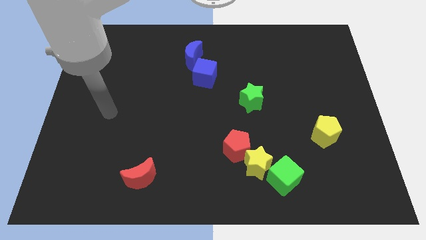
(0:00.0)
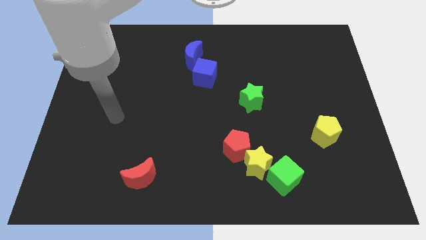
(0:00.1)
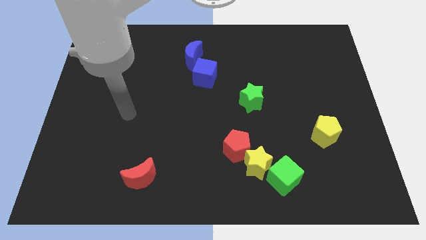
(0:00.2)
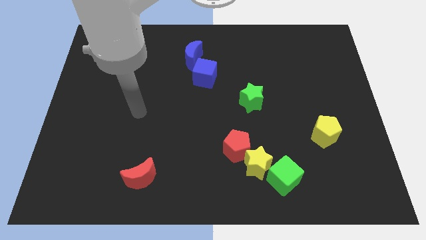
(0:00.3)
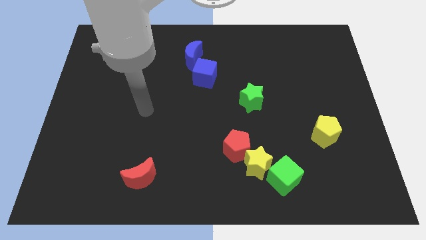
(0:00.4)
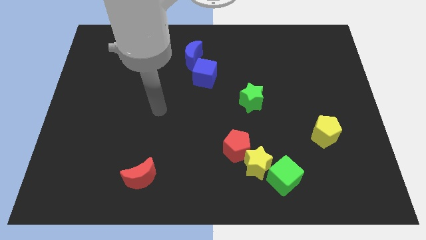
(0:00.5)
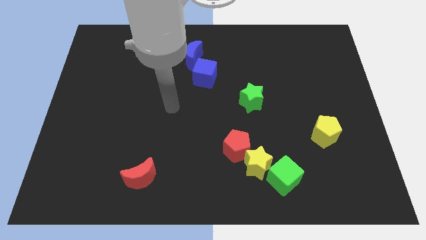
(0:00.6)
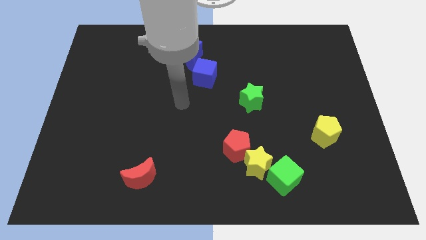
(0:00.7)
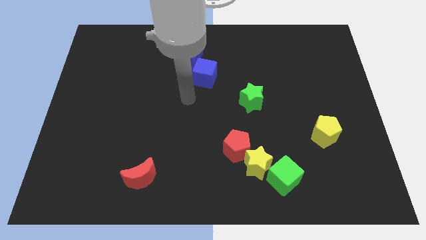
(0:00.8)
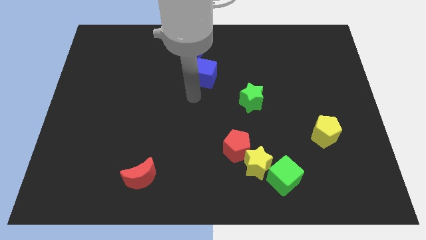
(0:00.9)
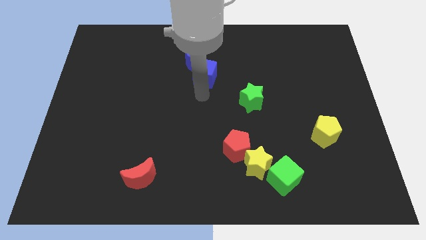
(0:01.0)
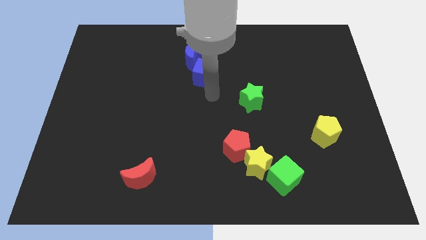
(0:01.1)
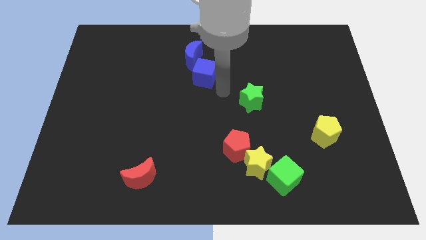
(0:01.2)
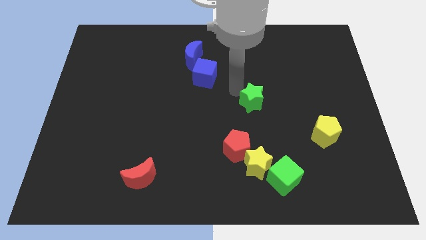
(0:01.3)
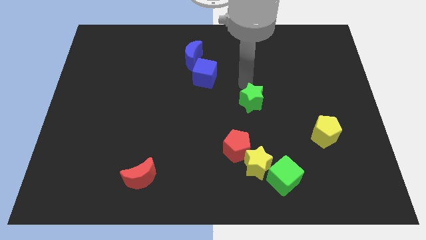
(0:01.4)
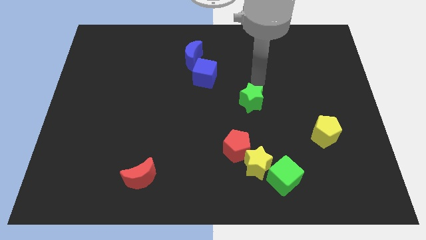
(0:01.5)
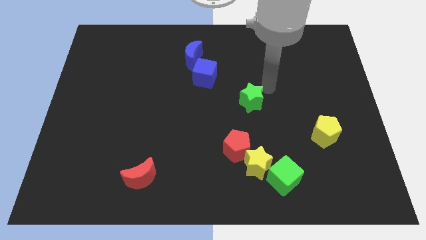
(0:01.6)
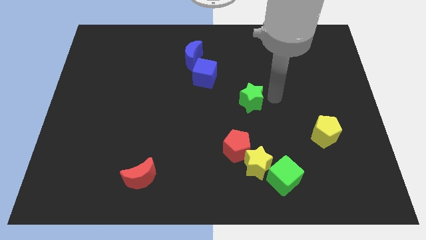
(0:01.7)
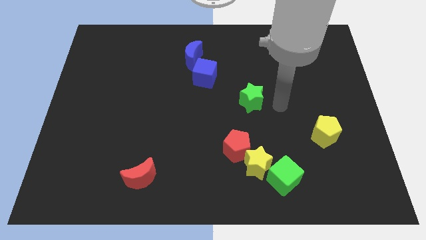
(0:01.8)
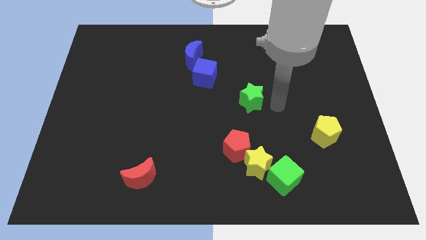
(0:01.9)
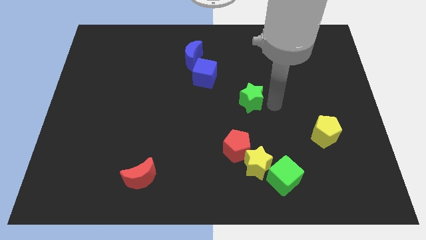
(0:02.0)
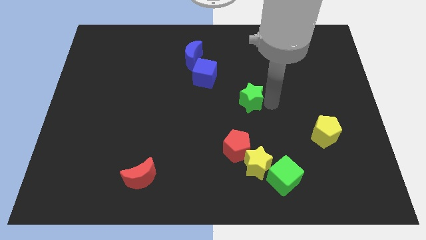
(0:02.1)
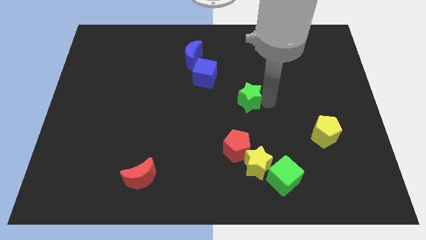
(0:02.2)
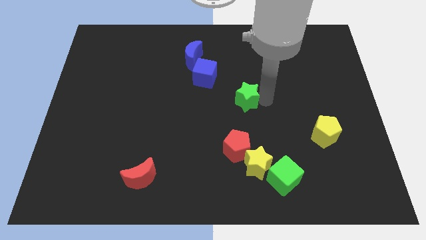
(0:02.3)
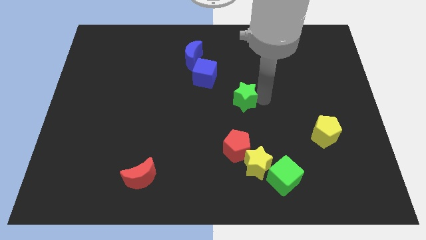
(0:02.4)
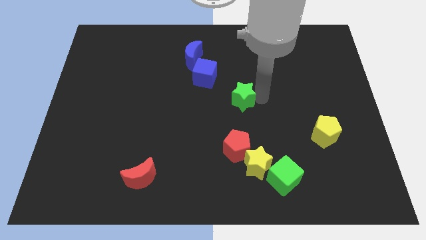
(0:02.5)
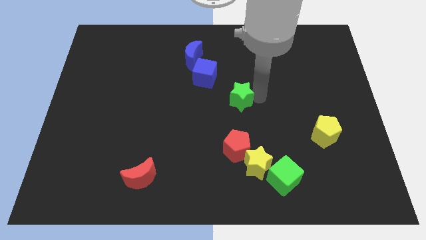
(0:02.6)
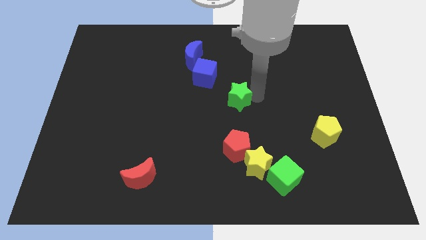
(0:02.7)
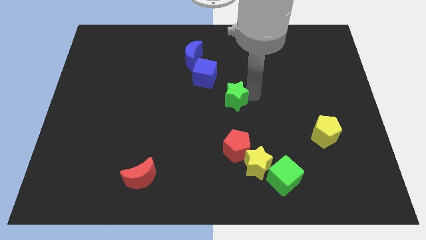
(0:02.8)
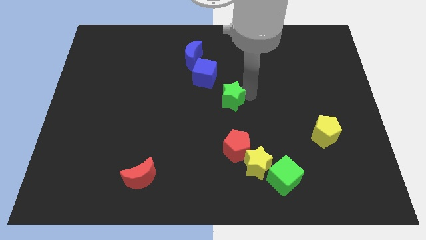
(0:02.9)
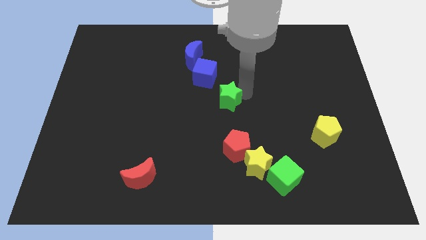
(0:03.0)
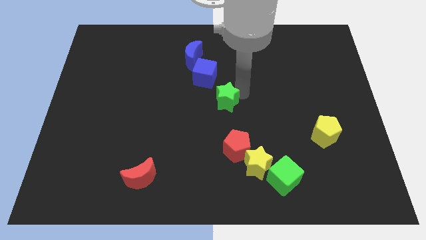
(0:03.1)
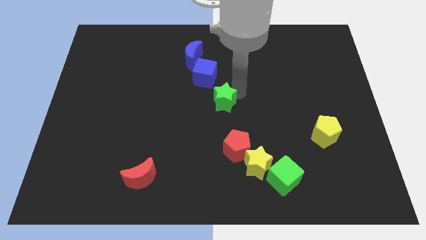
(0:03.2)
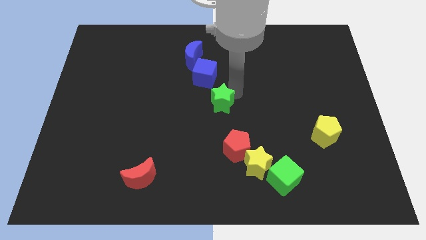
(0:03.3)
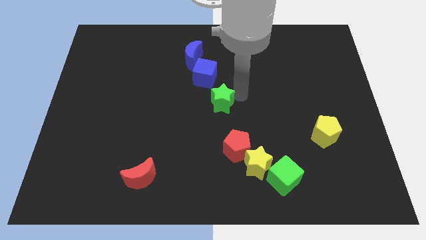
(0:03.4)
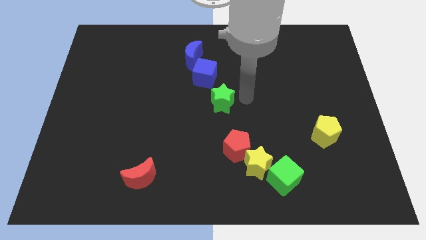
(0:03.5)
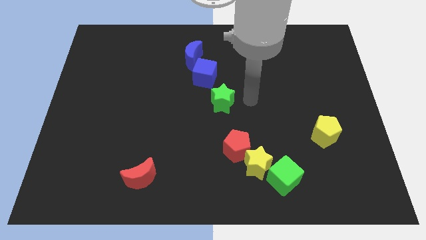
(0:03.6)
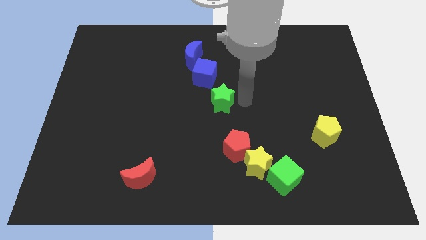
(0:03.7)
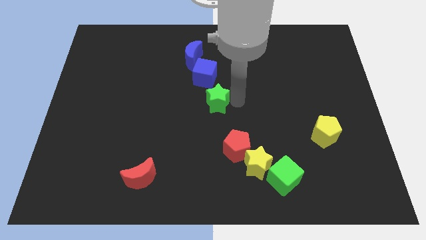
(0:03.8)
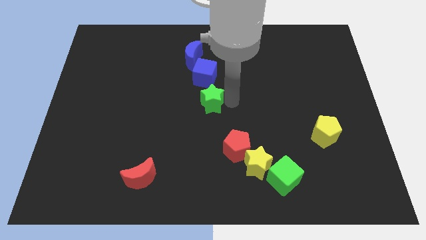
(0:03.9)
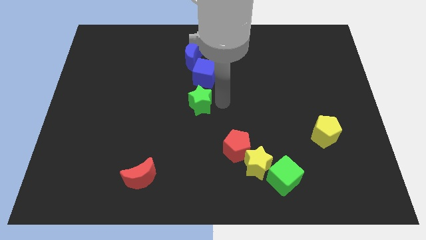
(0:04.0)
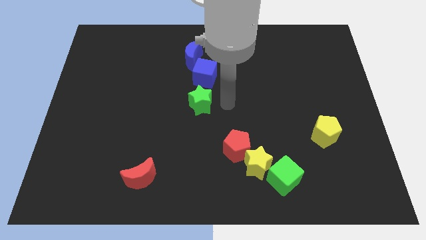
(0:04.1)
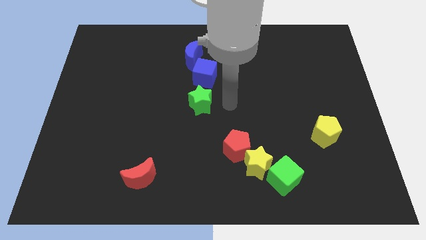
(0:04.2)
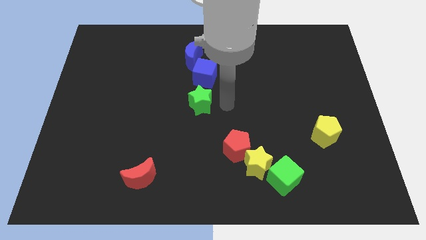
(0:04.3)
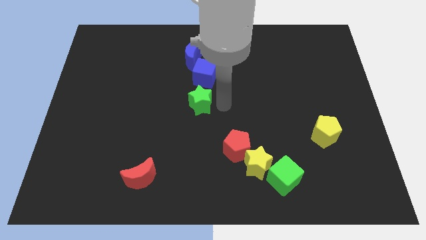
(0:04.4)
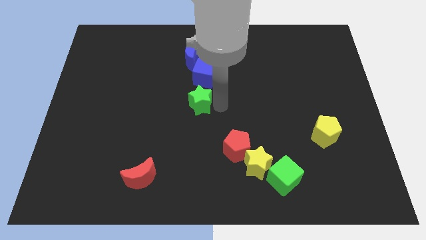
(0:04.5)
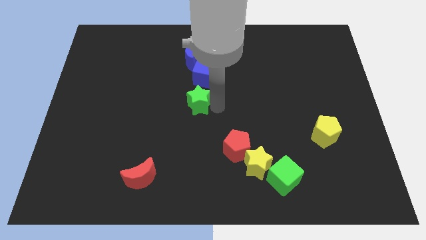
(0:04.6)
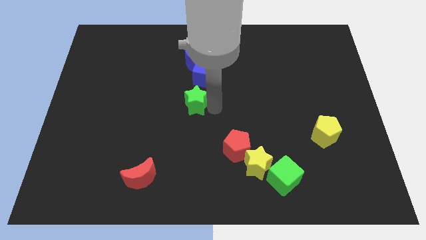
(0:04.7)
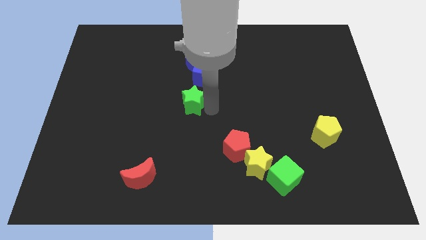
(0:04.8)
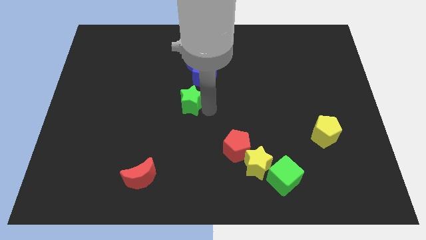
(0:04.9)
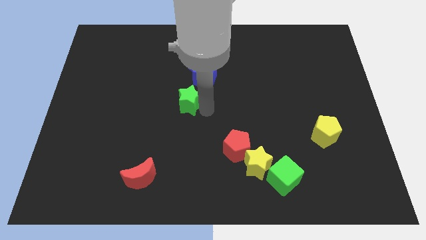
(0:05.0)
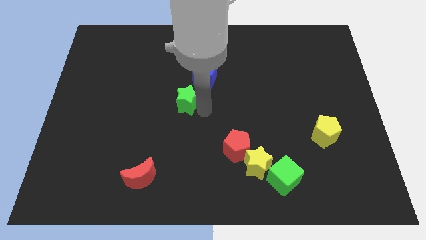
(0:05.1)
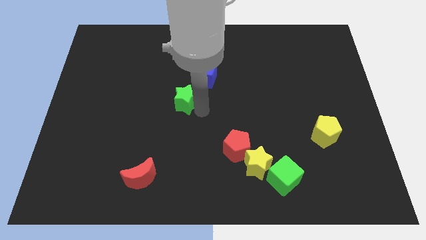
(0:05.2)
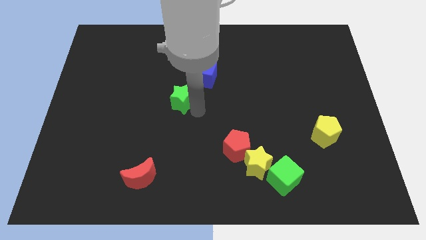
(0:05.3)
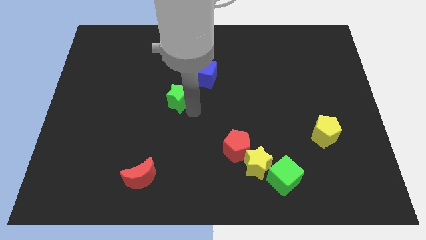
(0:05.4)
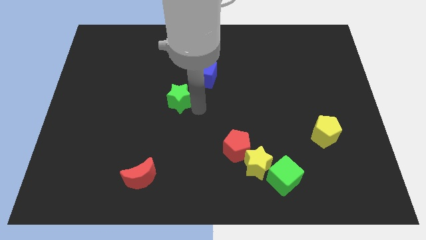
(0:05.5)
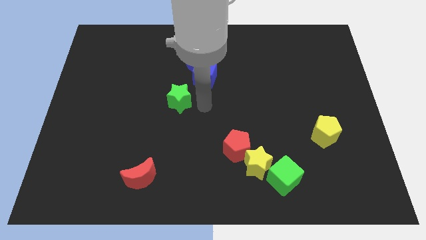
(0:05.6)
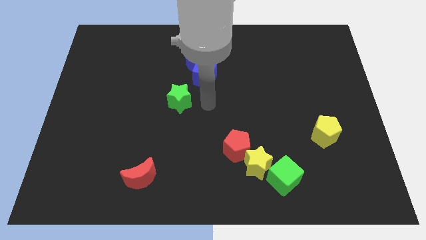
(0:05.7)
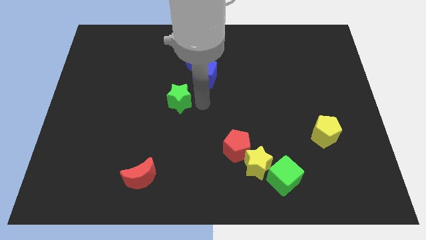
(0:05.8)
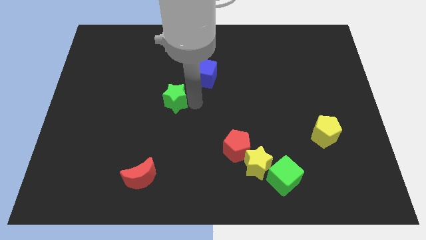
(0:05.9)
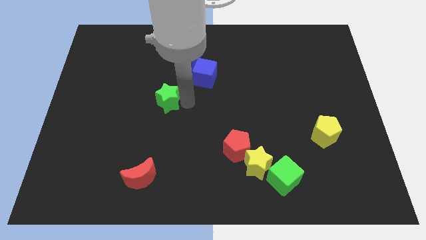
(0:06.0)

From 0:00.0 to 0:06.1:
push the green star left

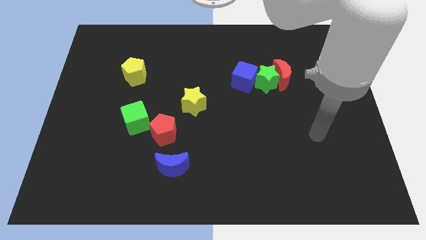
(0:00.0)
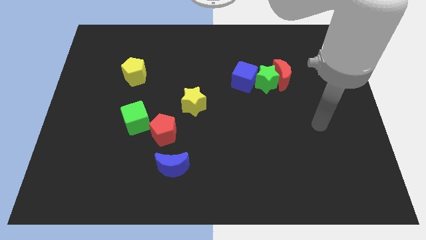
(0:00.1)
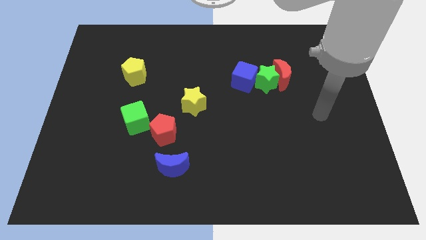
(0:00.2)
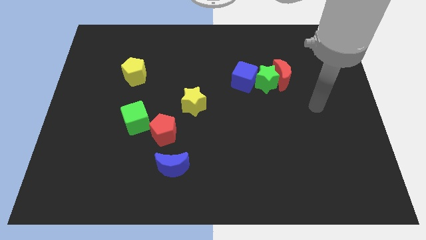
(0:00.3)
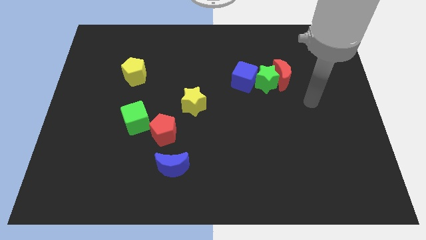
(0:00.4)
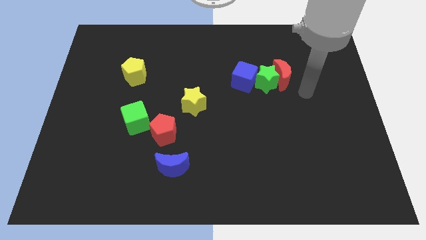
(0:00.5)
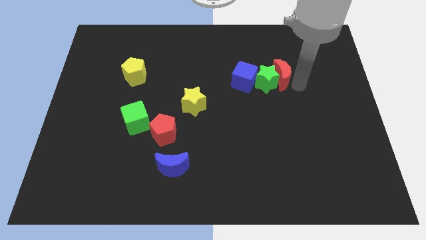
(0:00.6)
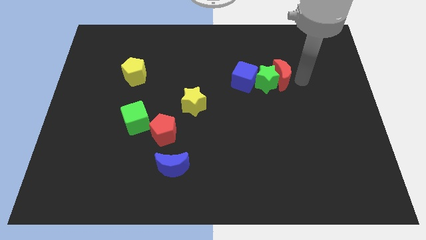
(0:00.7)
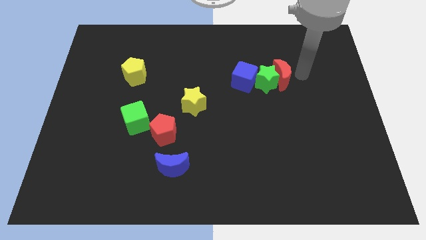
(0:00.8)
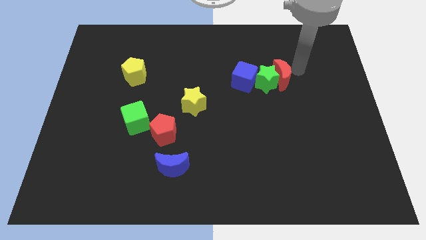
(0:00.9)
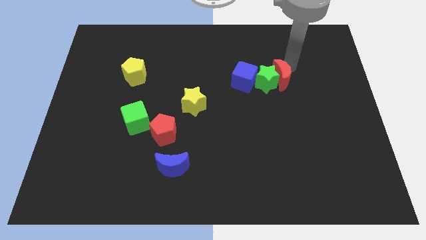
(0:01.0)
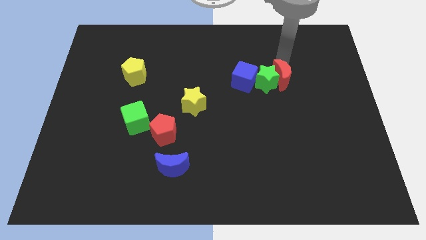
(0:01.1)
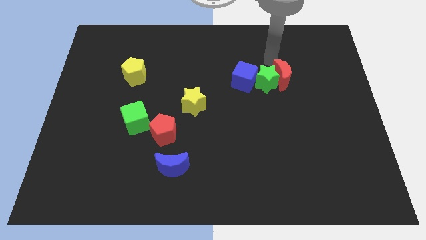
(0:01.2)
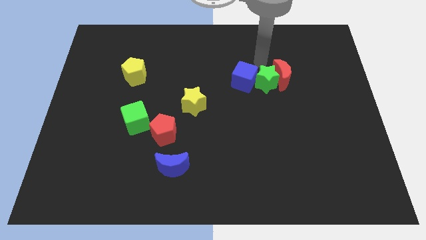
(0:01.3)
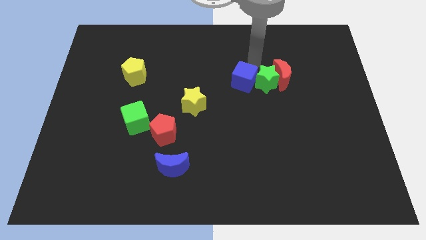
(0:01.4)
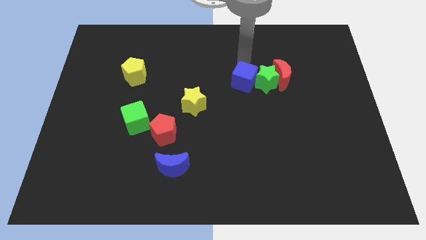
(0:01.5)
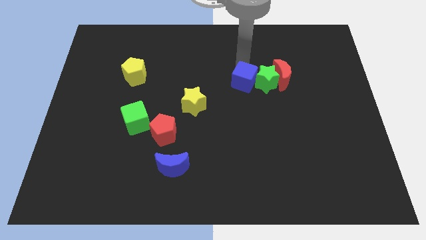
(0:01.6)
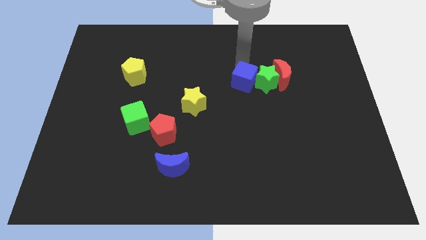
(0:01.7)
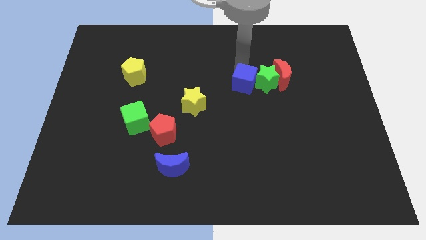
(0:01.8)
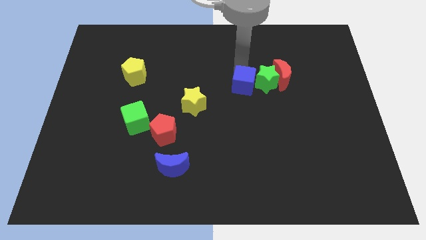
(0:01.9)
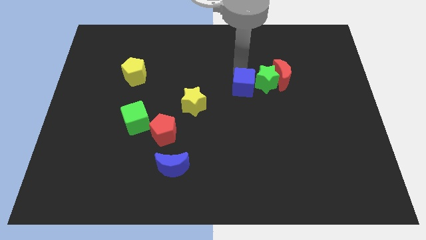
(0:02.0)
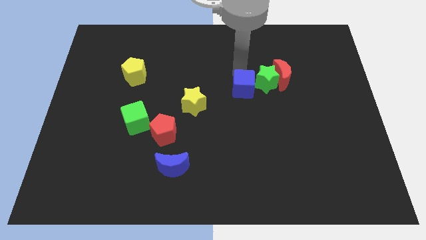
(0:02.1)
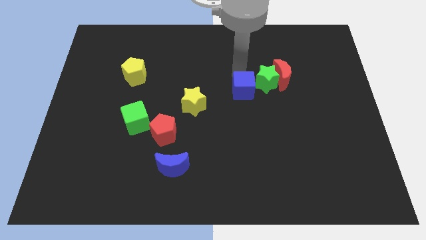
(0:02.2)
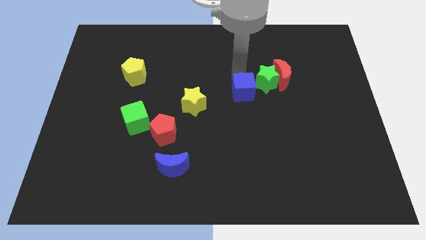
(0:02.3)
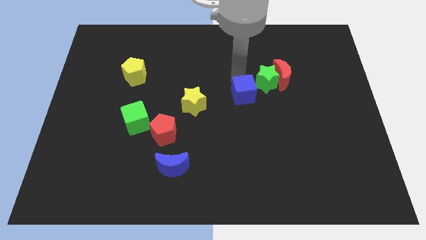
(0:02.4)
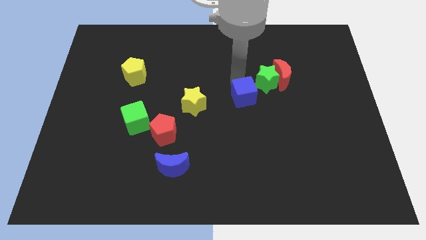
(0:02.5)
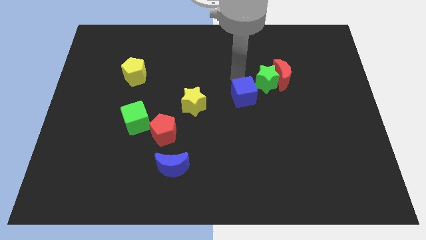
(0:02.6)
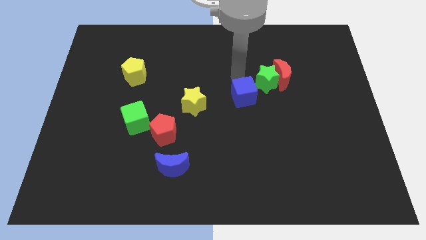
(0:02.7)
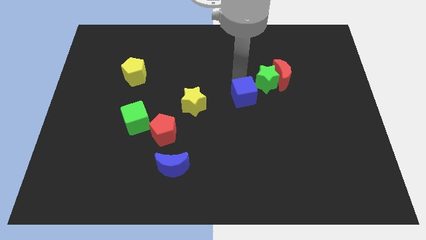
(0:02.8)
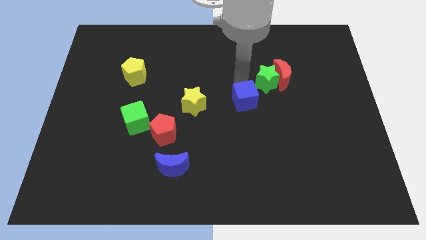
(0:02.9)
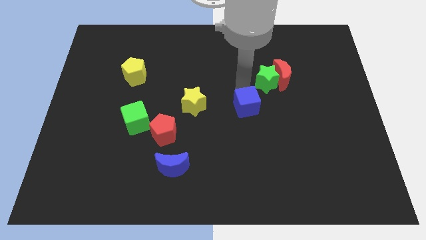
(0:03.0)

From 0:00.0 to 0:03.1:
push the blue cube a little down
